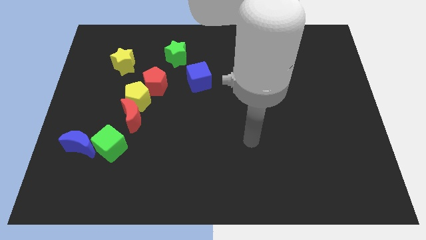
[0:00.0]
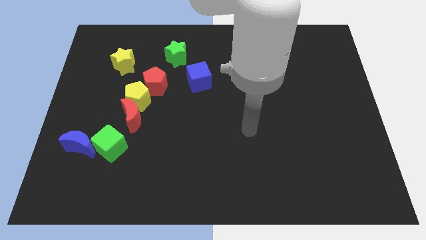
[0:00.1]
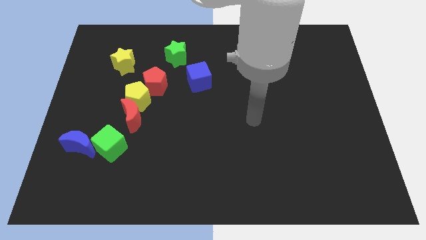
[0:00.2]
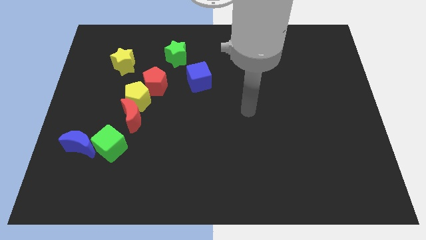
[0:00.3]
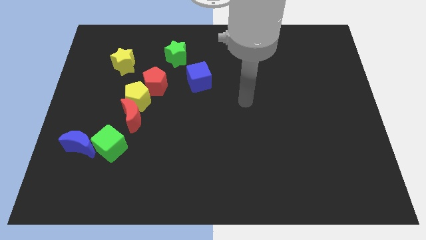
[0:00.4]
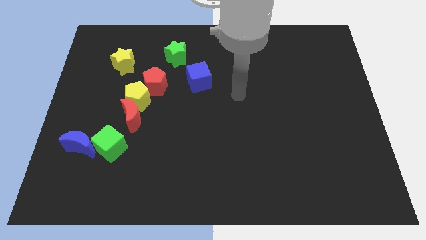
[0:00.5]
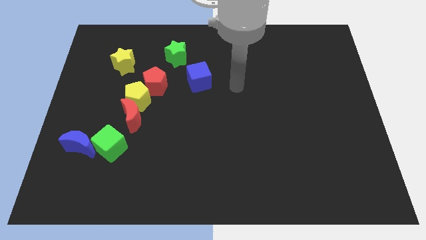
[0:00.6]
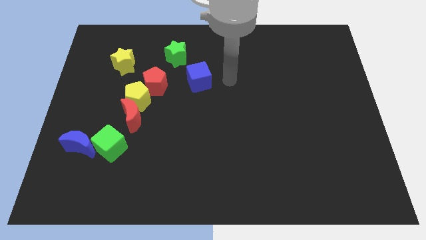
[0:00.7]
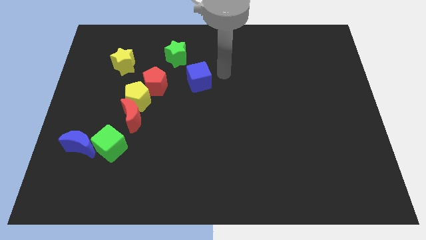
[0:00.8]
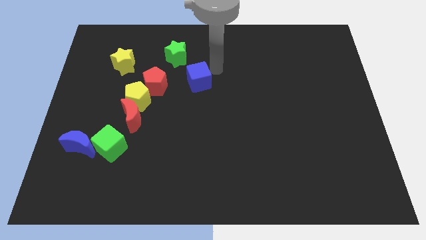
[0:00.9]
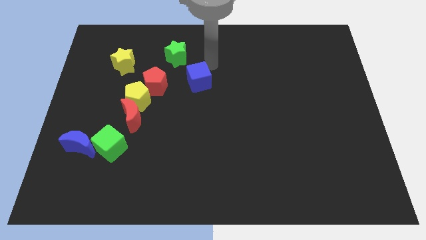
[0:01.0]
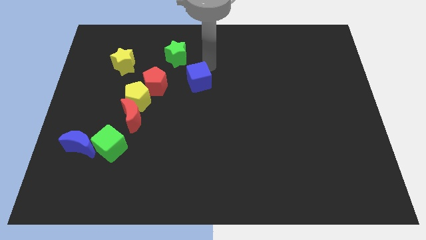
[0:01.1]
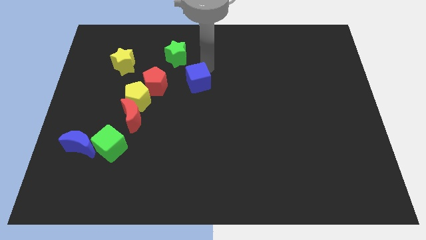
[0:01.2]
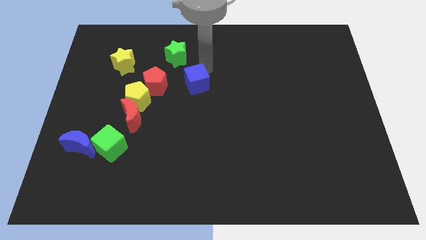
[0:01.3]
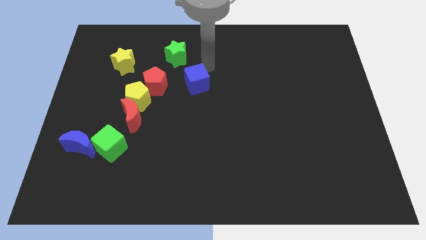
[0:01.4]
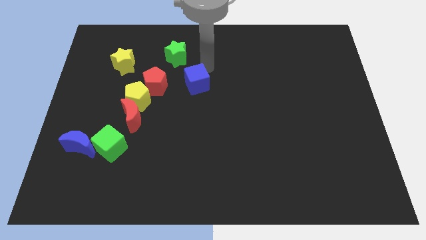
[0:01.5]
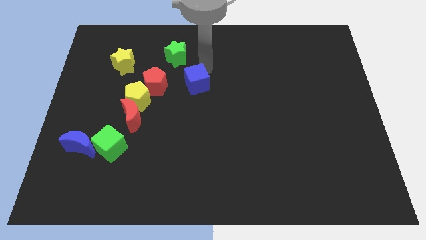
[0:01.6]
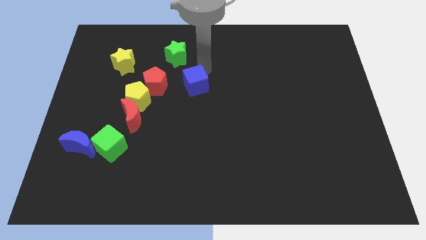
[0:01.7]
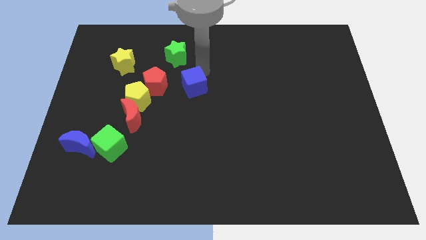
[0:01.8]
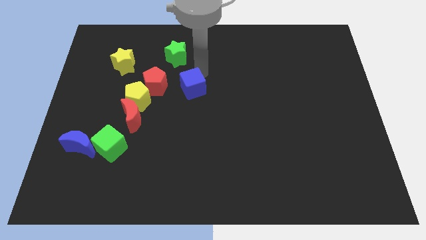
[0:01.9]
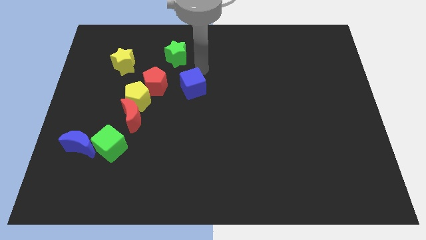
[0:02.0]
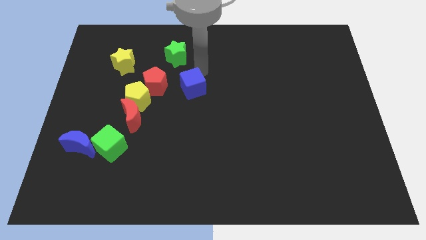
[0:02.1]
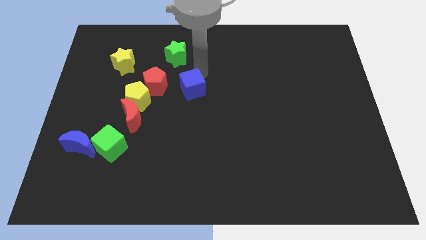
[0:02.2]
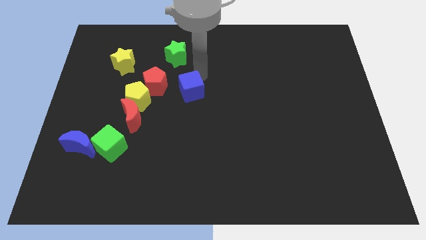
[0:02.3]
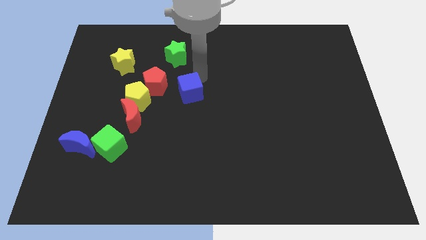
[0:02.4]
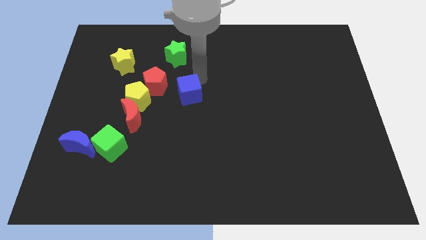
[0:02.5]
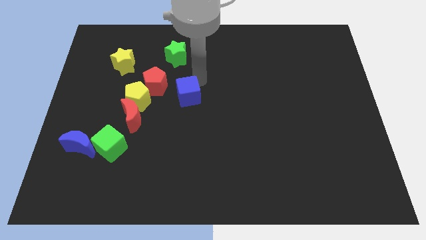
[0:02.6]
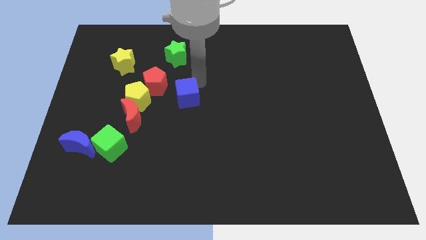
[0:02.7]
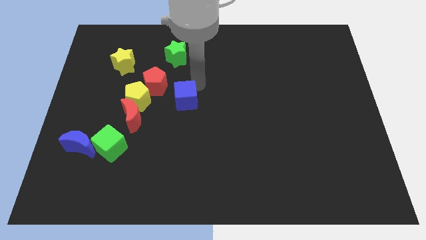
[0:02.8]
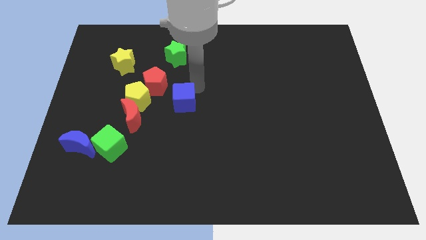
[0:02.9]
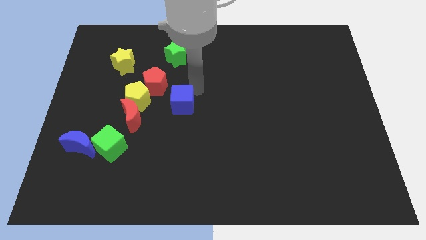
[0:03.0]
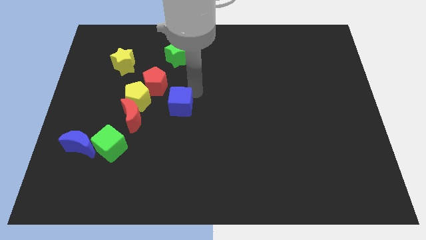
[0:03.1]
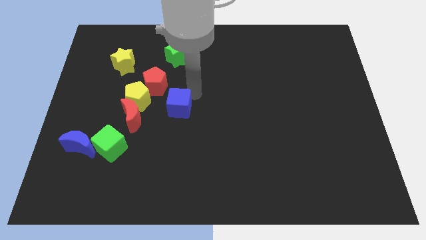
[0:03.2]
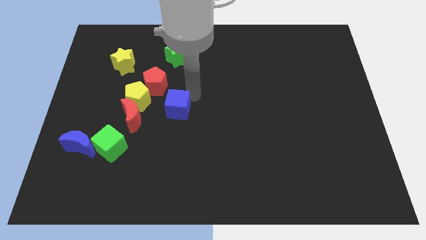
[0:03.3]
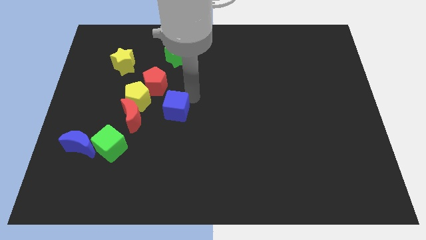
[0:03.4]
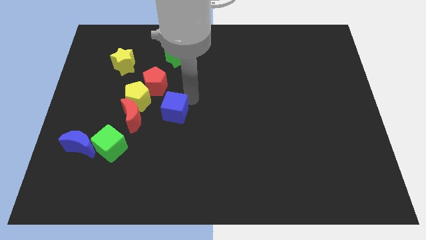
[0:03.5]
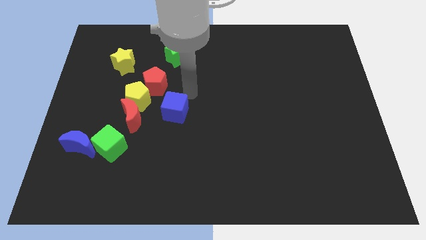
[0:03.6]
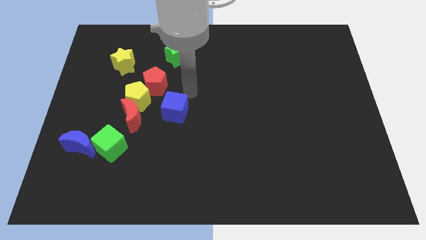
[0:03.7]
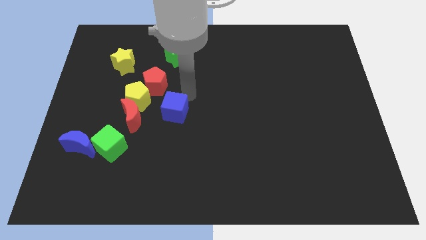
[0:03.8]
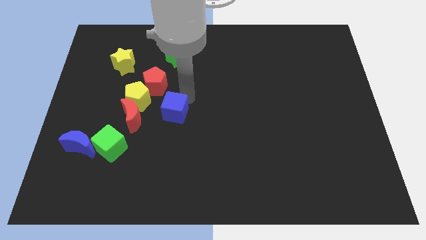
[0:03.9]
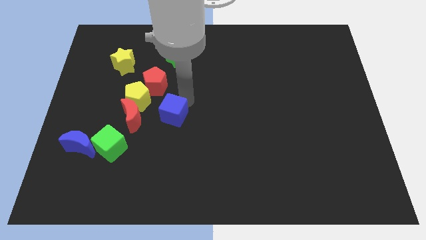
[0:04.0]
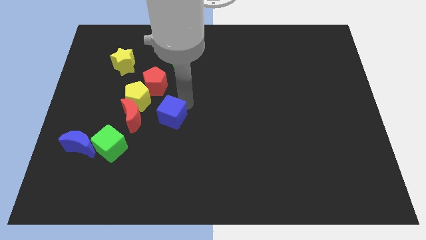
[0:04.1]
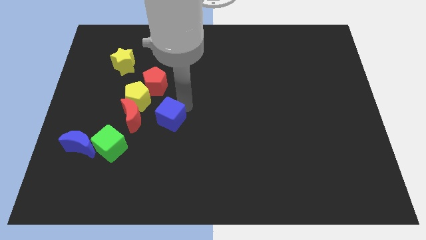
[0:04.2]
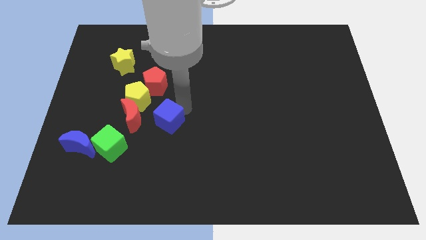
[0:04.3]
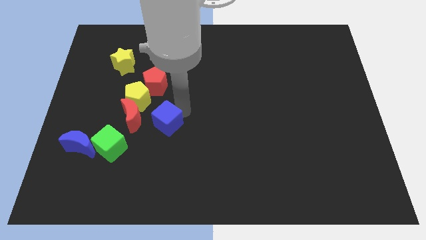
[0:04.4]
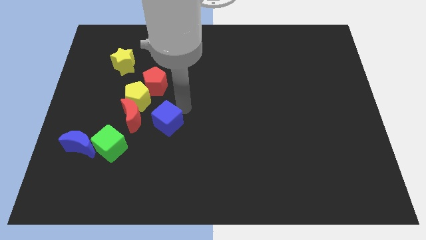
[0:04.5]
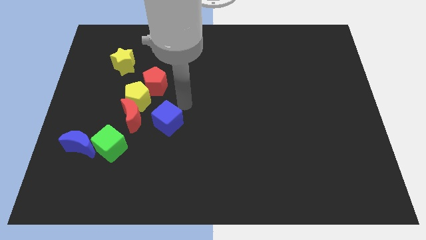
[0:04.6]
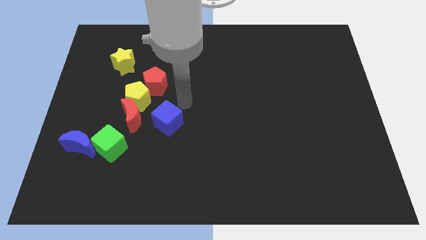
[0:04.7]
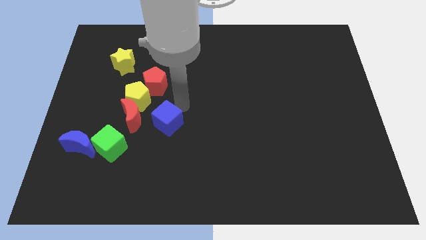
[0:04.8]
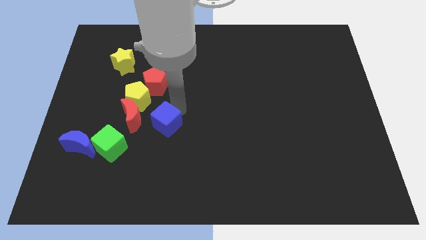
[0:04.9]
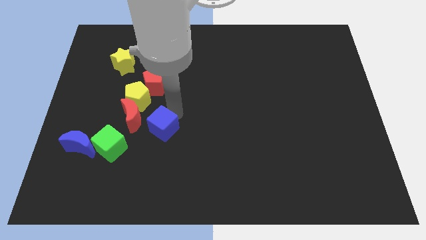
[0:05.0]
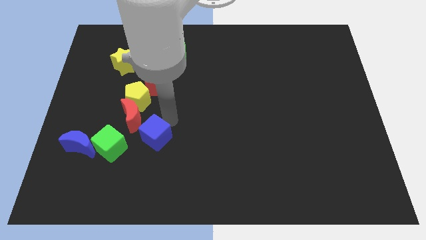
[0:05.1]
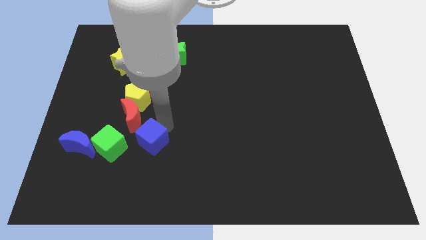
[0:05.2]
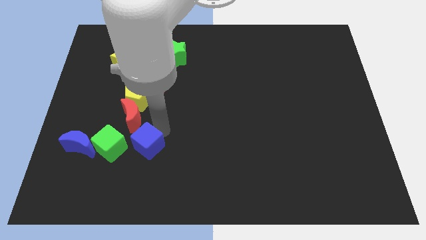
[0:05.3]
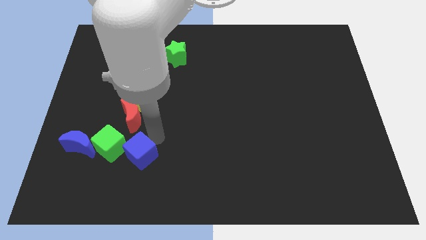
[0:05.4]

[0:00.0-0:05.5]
move the blue cube down and to the left diagonally

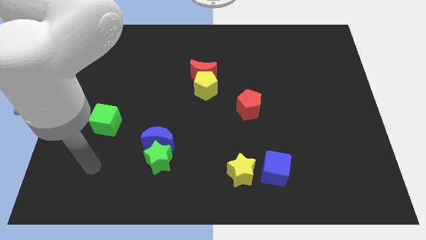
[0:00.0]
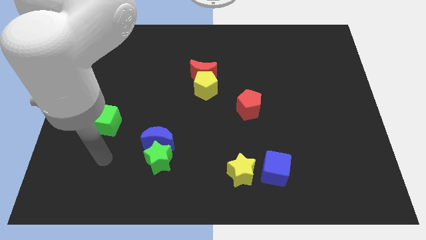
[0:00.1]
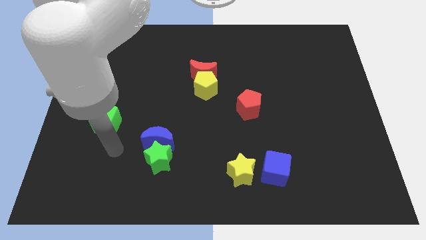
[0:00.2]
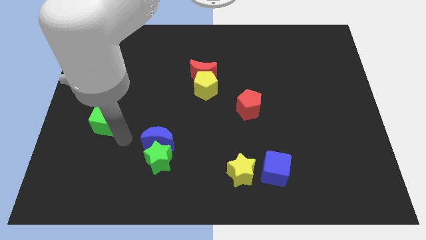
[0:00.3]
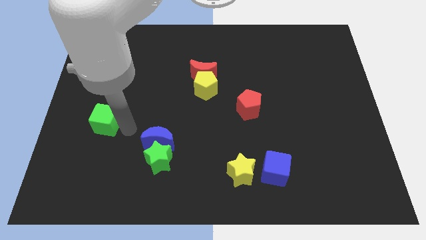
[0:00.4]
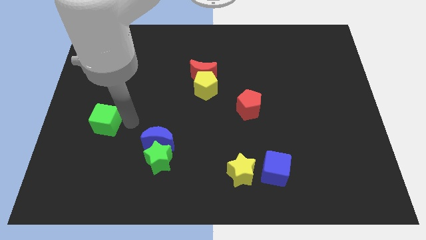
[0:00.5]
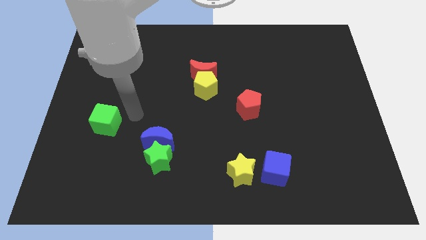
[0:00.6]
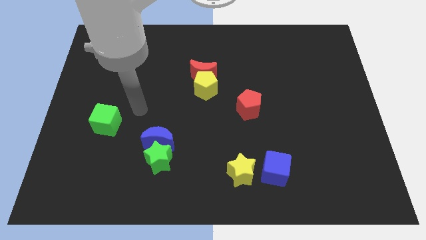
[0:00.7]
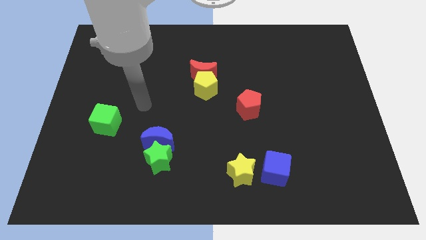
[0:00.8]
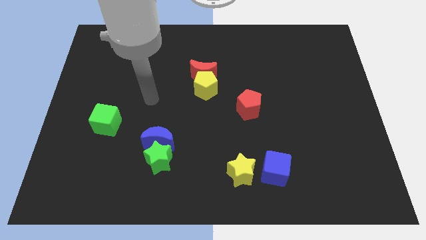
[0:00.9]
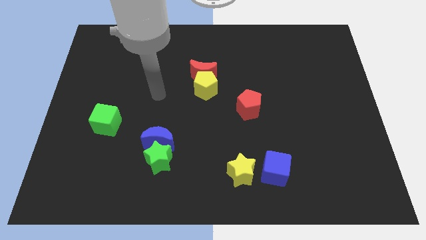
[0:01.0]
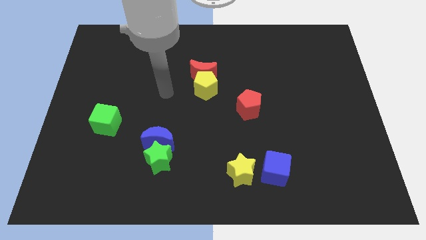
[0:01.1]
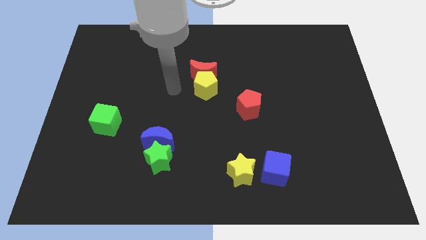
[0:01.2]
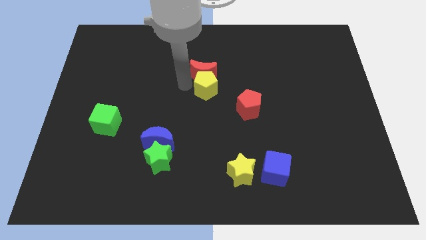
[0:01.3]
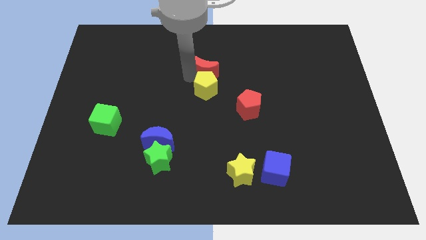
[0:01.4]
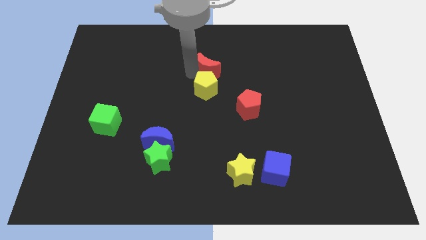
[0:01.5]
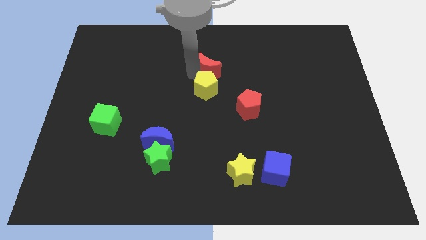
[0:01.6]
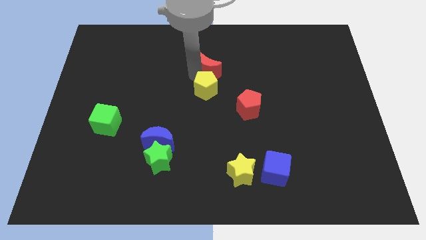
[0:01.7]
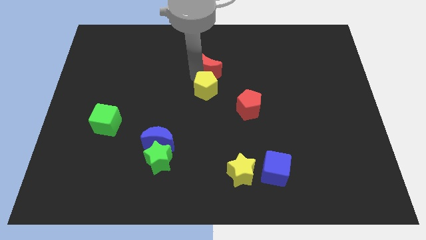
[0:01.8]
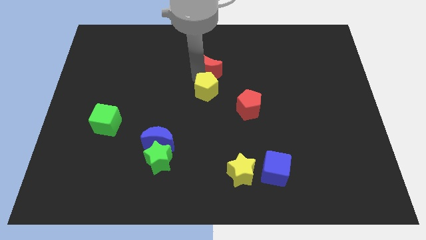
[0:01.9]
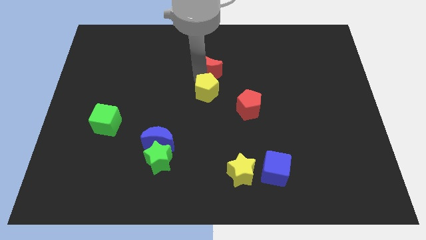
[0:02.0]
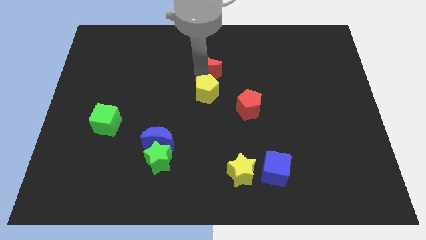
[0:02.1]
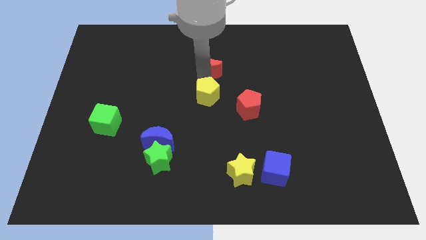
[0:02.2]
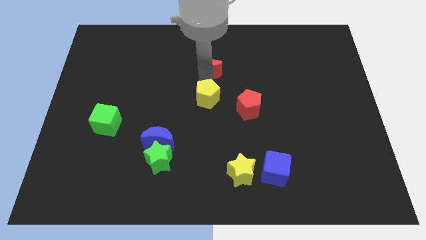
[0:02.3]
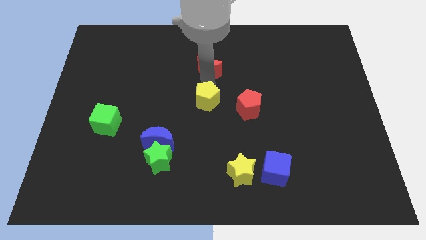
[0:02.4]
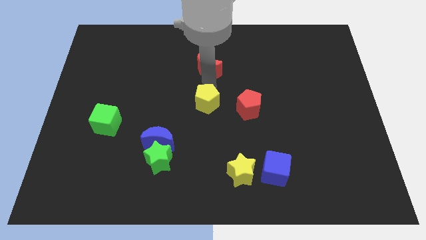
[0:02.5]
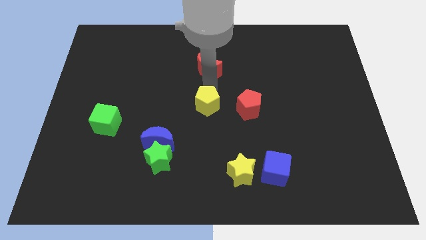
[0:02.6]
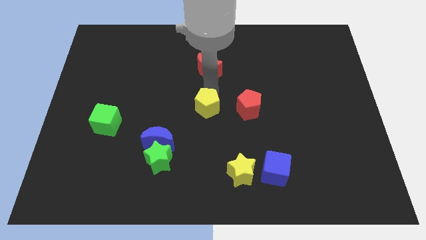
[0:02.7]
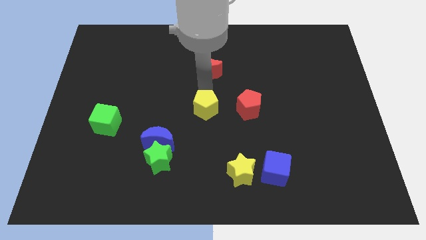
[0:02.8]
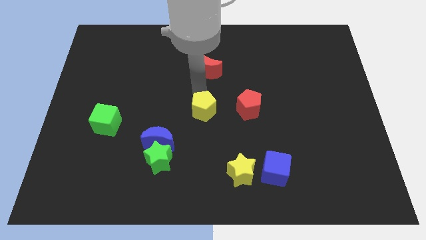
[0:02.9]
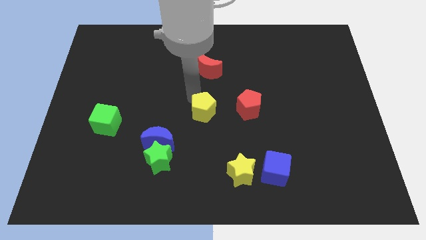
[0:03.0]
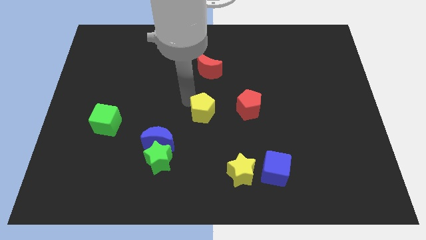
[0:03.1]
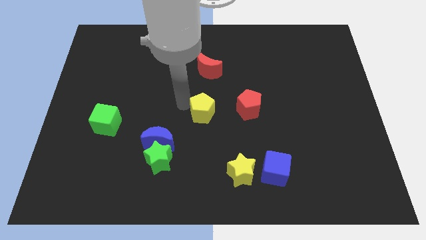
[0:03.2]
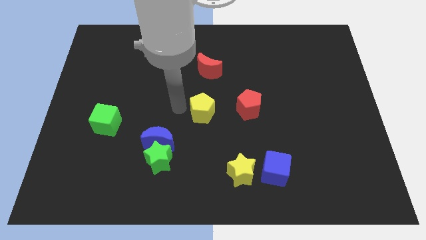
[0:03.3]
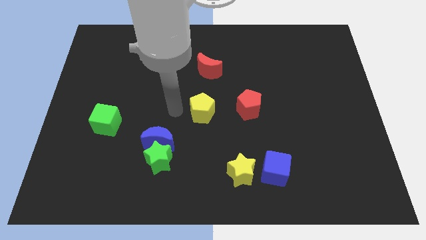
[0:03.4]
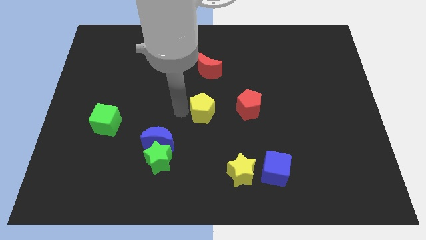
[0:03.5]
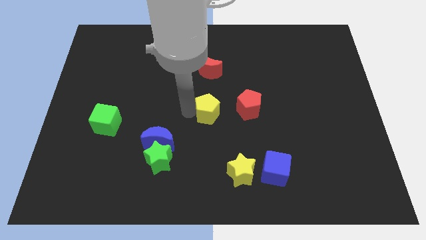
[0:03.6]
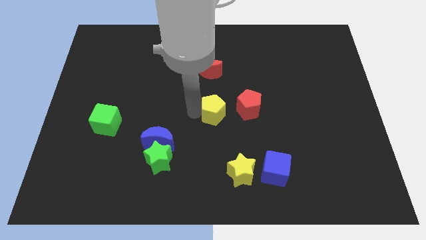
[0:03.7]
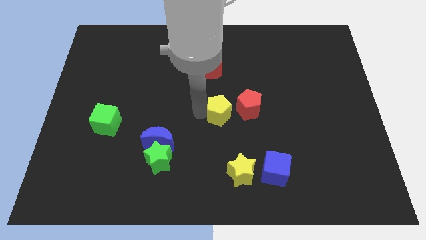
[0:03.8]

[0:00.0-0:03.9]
slightly push the yellow pentagon downwards and right
